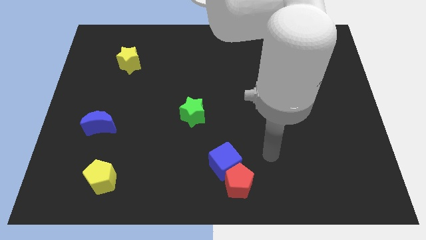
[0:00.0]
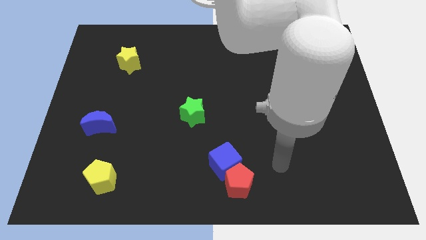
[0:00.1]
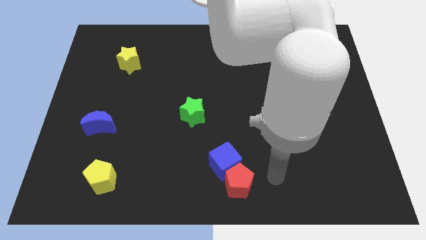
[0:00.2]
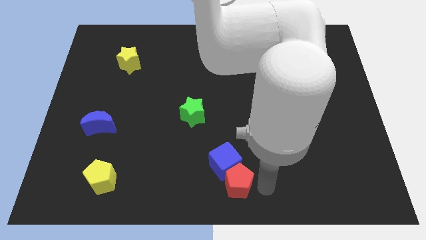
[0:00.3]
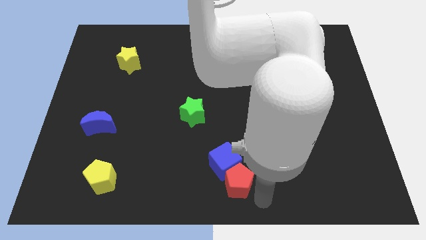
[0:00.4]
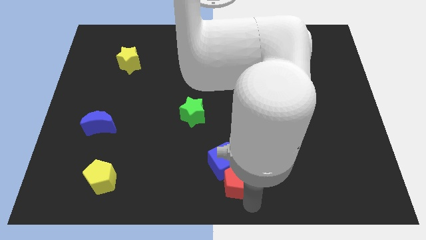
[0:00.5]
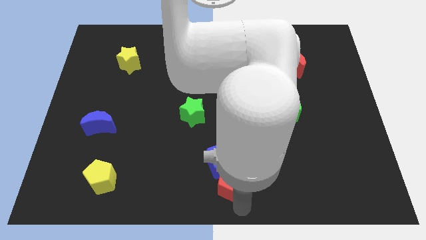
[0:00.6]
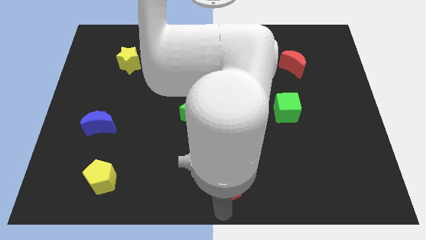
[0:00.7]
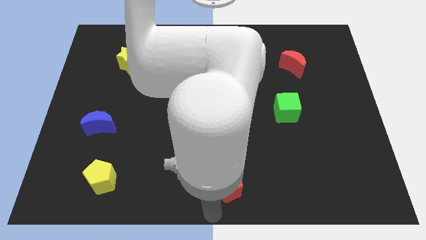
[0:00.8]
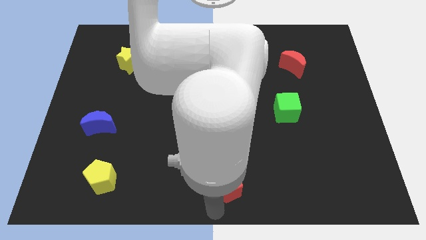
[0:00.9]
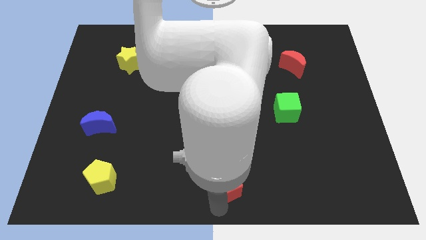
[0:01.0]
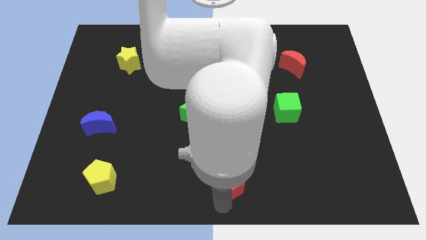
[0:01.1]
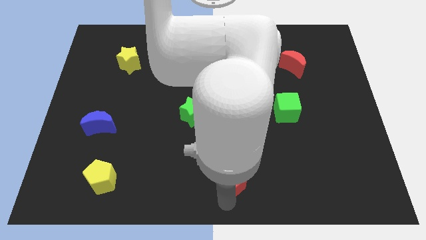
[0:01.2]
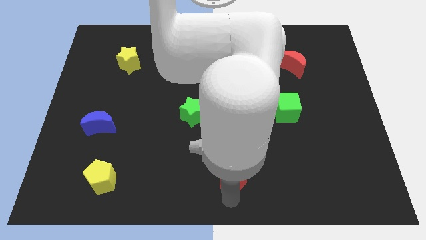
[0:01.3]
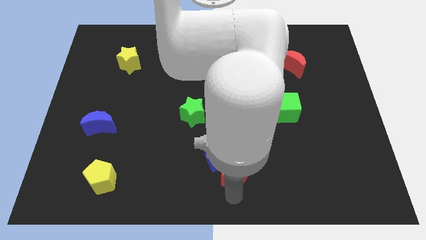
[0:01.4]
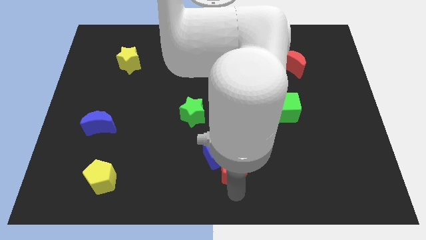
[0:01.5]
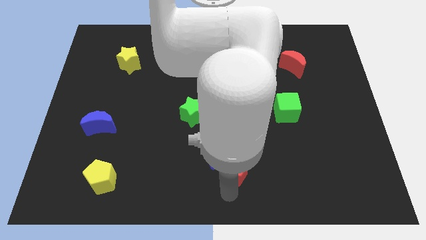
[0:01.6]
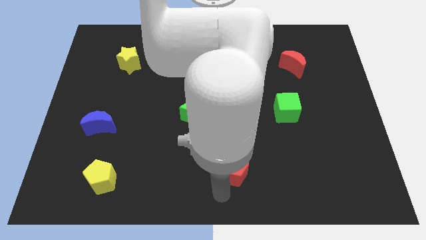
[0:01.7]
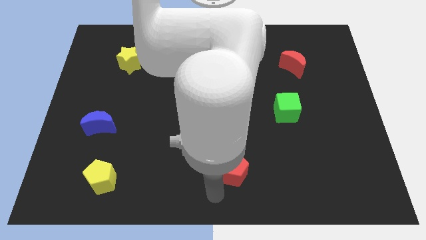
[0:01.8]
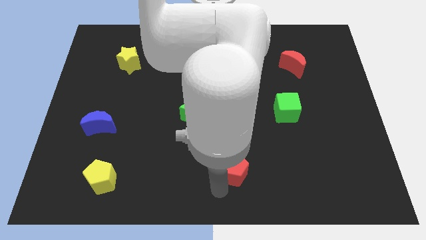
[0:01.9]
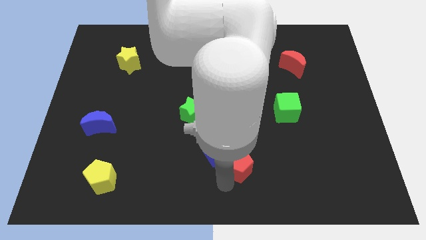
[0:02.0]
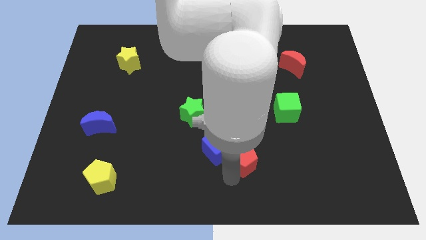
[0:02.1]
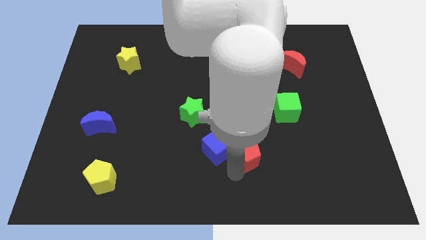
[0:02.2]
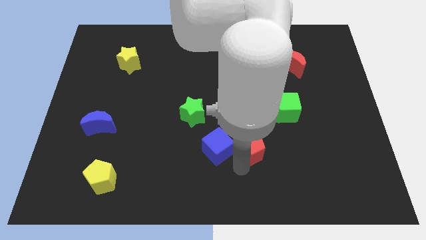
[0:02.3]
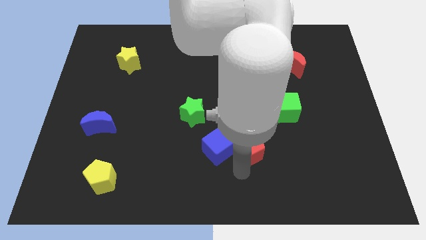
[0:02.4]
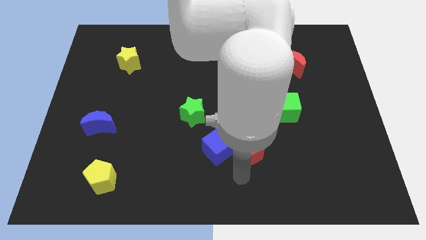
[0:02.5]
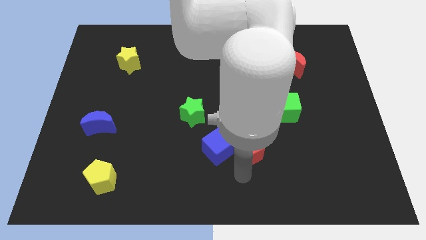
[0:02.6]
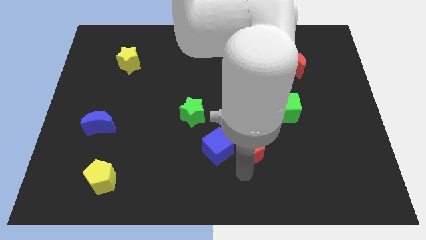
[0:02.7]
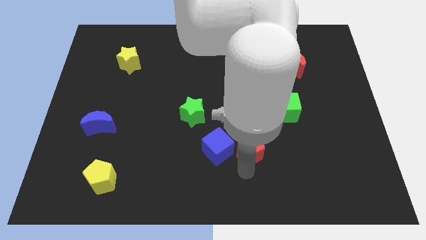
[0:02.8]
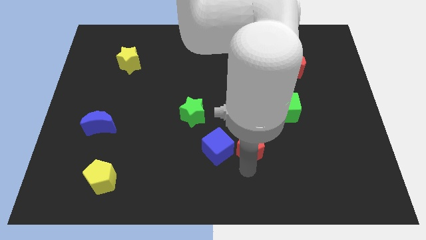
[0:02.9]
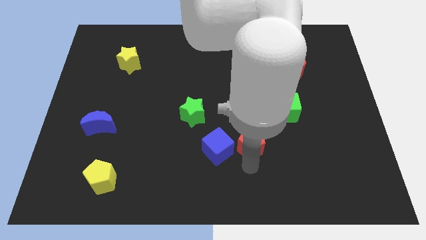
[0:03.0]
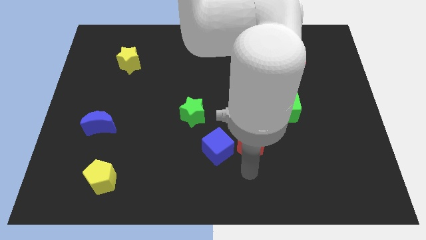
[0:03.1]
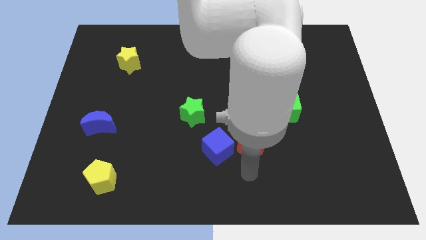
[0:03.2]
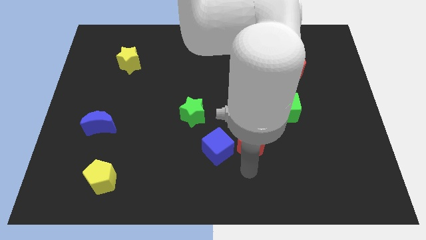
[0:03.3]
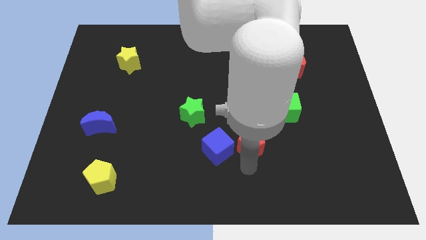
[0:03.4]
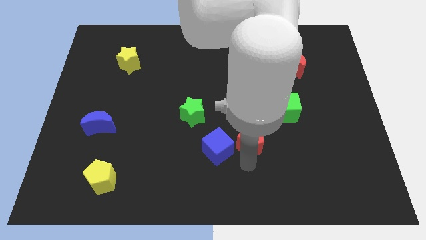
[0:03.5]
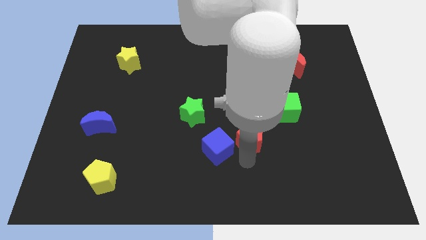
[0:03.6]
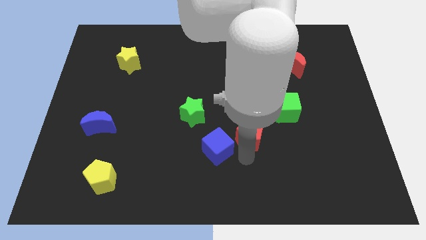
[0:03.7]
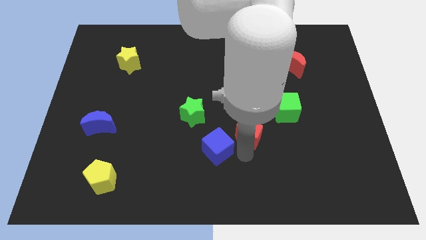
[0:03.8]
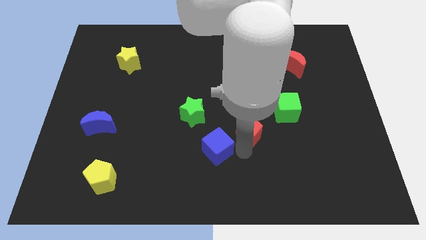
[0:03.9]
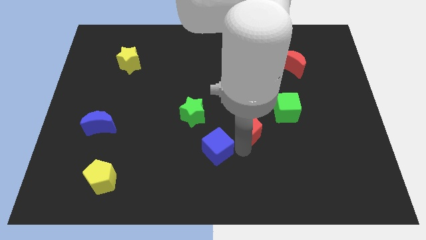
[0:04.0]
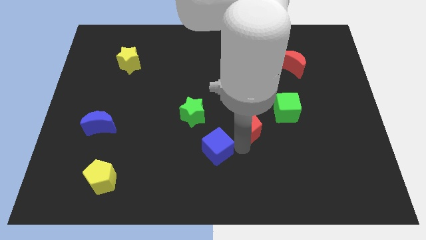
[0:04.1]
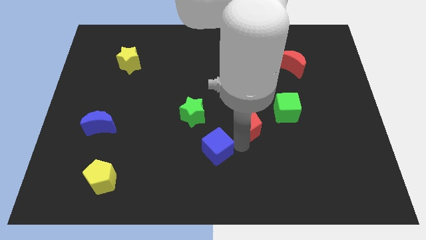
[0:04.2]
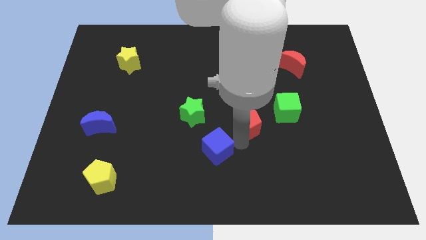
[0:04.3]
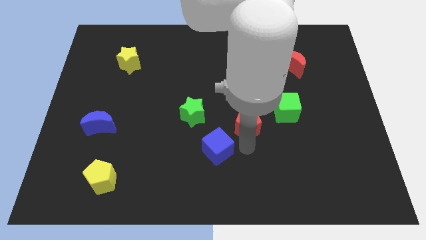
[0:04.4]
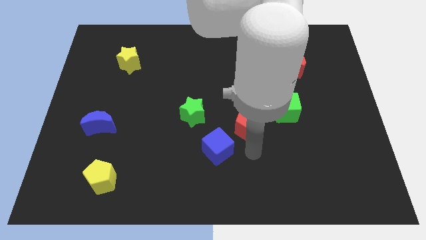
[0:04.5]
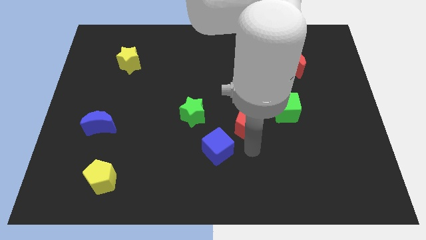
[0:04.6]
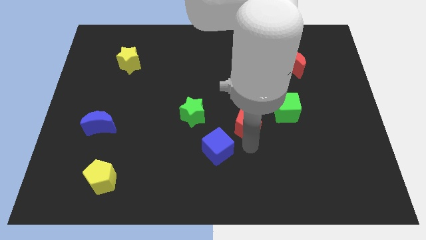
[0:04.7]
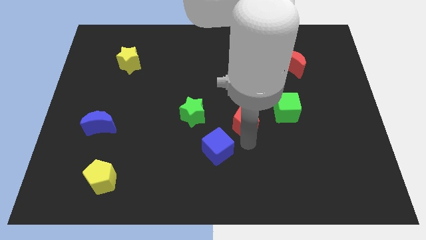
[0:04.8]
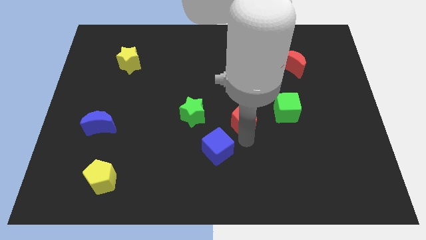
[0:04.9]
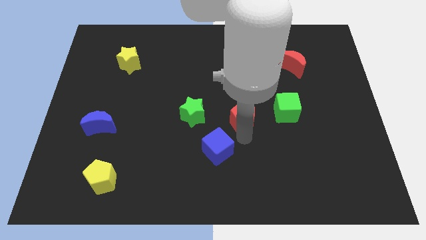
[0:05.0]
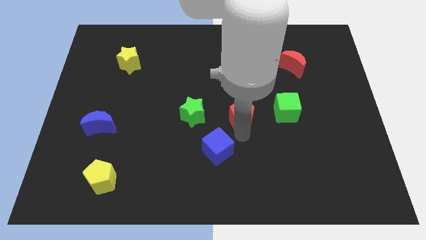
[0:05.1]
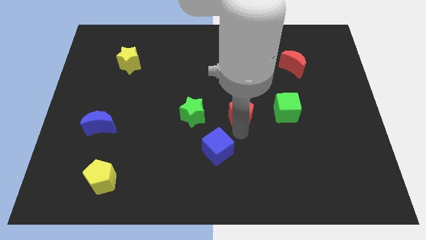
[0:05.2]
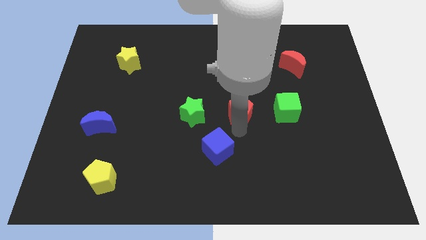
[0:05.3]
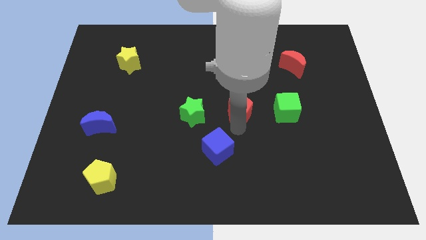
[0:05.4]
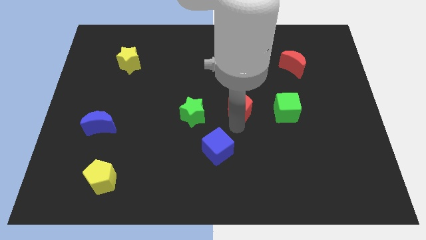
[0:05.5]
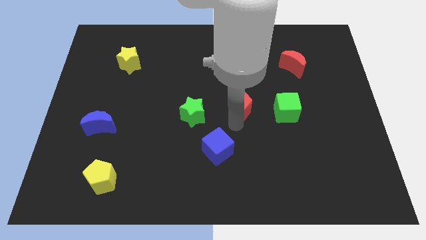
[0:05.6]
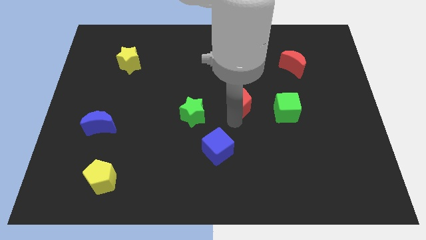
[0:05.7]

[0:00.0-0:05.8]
push the red pentagon up

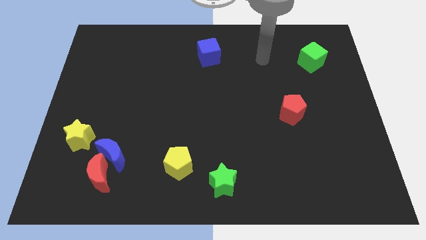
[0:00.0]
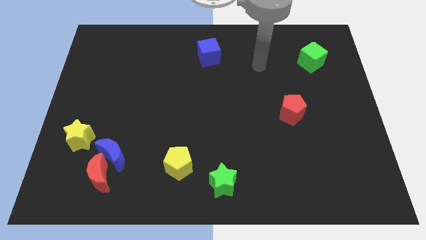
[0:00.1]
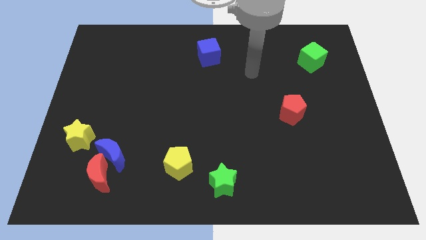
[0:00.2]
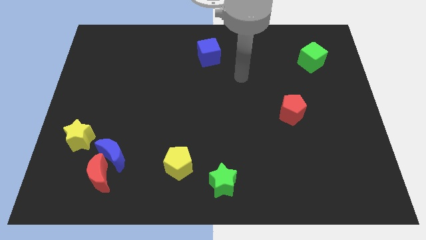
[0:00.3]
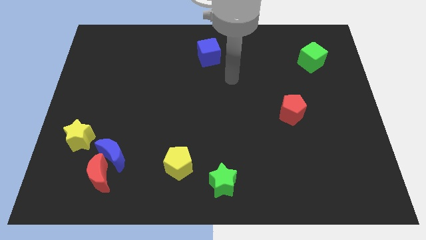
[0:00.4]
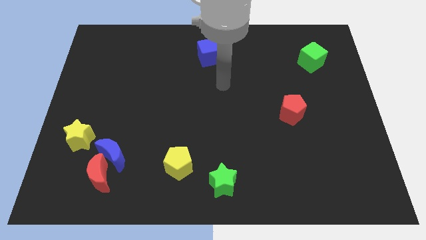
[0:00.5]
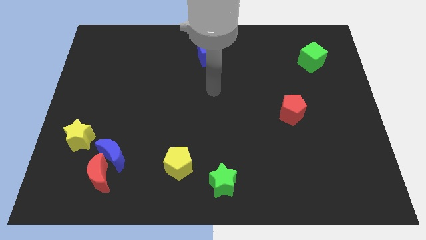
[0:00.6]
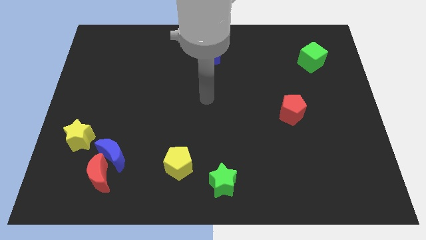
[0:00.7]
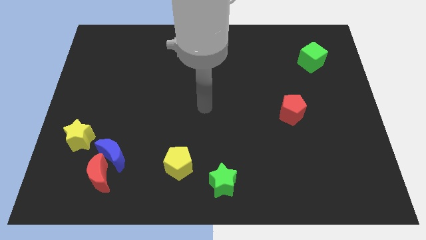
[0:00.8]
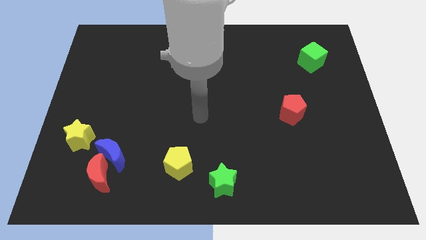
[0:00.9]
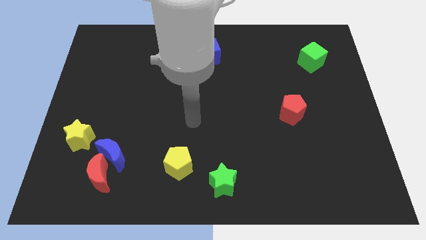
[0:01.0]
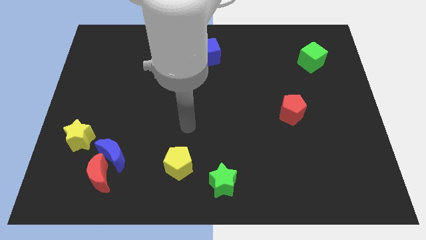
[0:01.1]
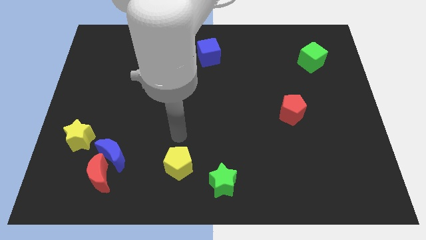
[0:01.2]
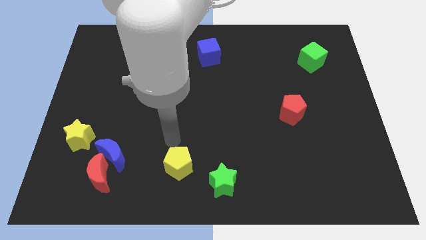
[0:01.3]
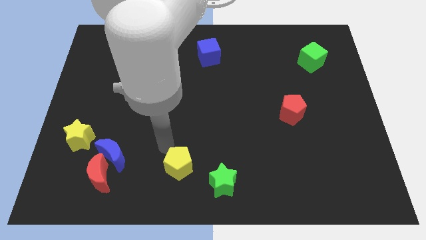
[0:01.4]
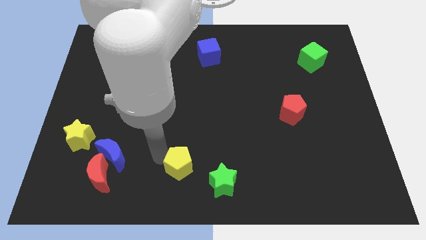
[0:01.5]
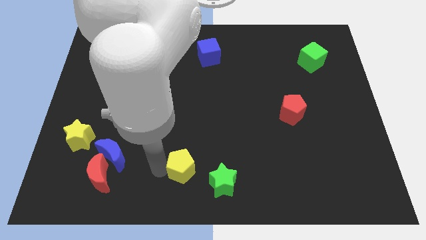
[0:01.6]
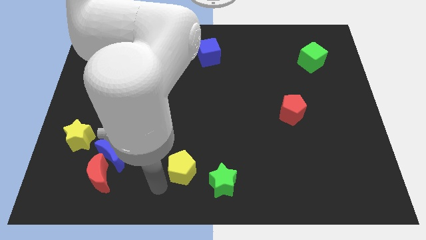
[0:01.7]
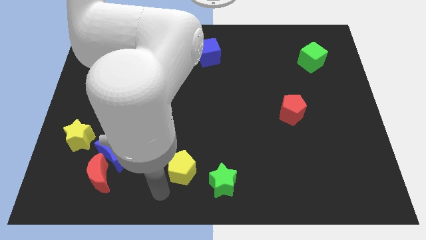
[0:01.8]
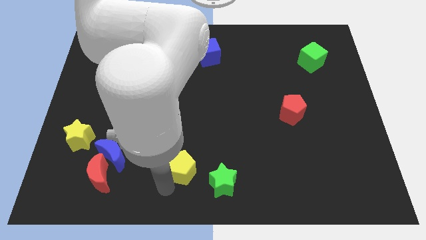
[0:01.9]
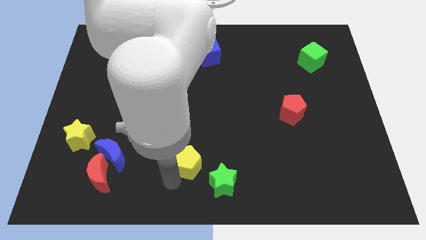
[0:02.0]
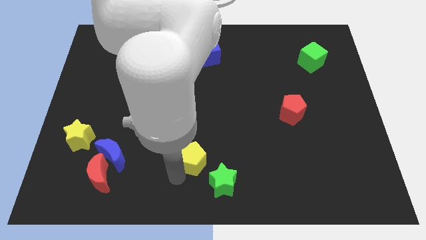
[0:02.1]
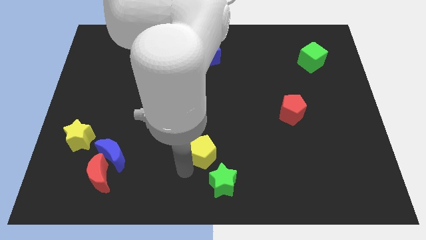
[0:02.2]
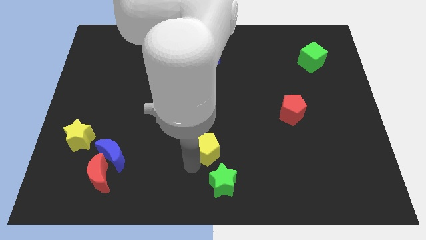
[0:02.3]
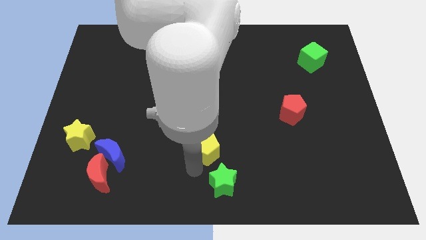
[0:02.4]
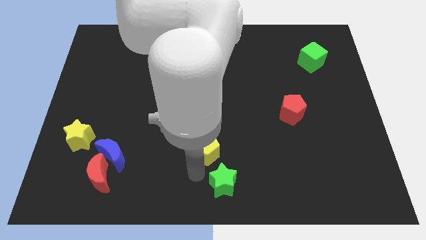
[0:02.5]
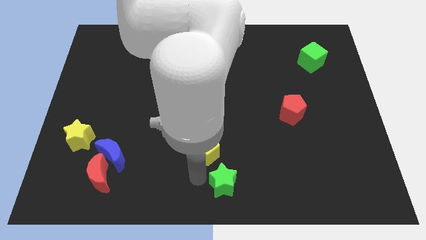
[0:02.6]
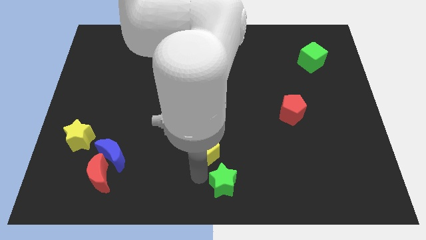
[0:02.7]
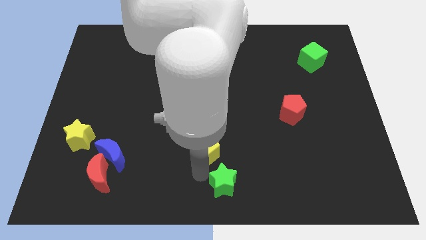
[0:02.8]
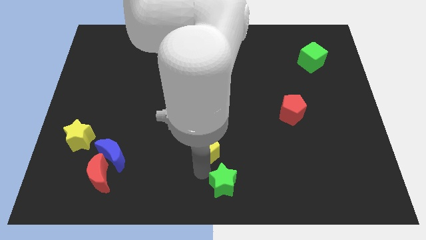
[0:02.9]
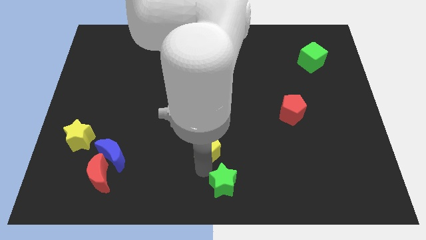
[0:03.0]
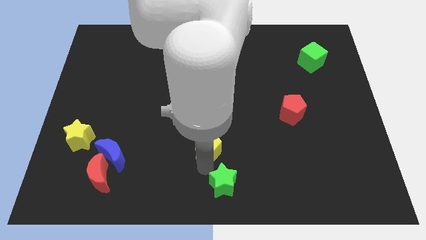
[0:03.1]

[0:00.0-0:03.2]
move the yellow pentagon somewhat up and right
